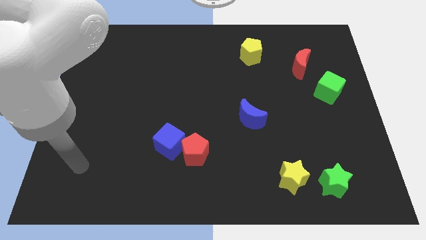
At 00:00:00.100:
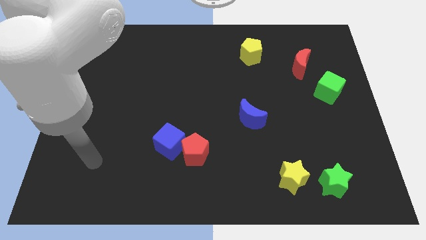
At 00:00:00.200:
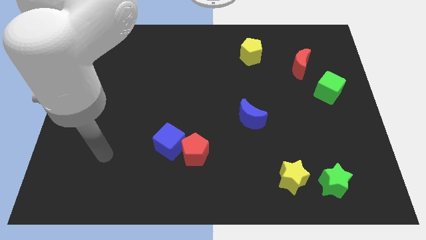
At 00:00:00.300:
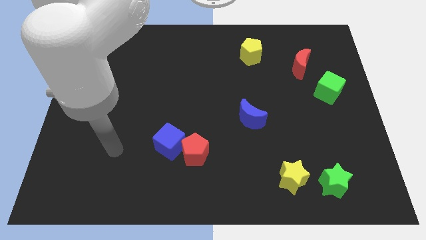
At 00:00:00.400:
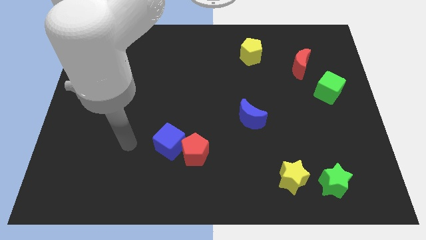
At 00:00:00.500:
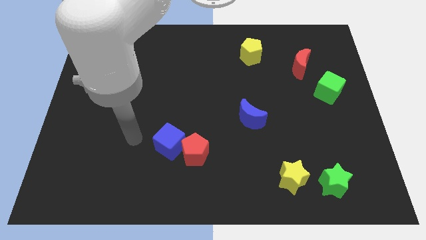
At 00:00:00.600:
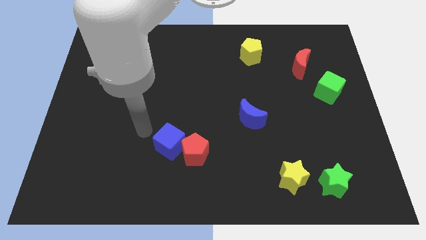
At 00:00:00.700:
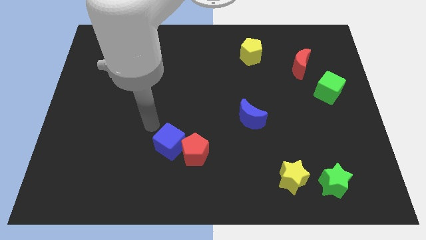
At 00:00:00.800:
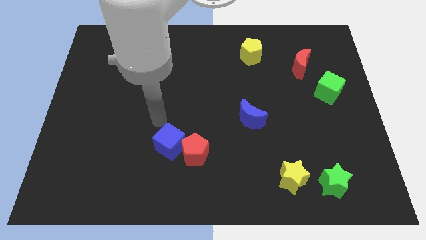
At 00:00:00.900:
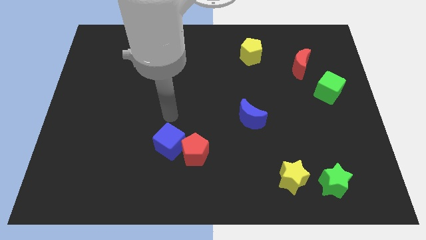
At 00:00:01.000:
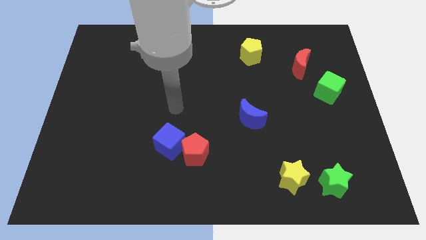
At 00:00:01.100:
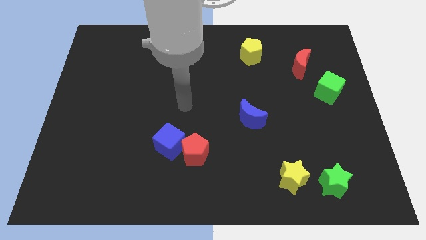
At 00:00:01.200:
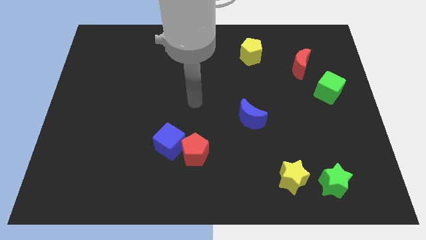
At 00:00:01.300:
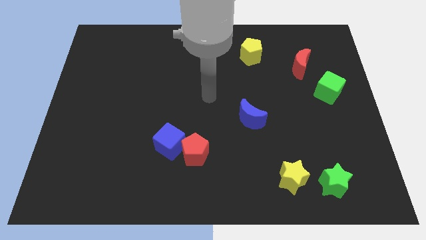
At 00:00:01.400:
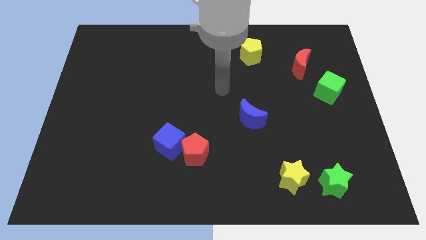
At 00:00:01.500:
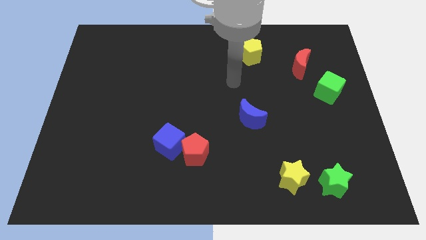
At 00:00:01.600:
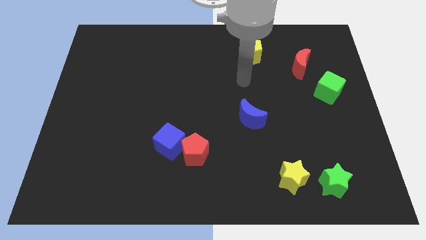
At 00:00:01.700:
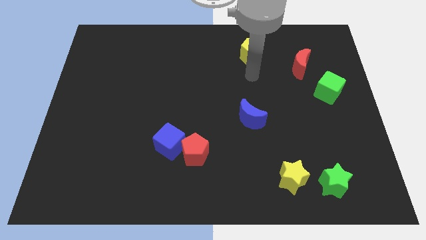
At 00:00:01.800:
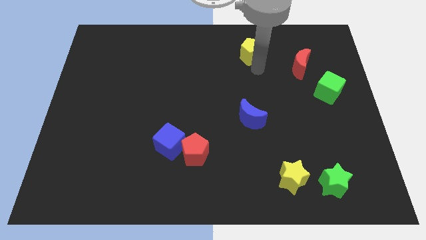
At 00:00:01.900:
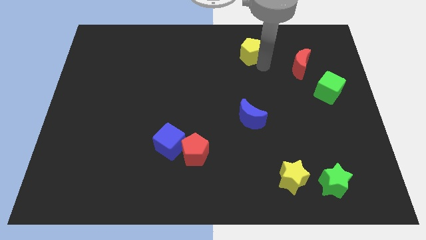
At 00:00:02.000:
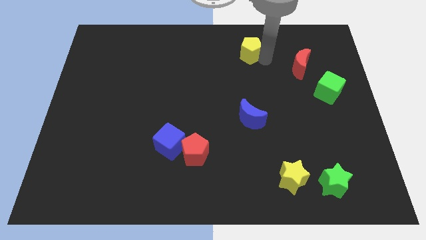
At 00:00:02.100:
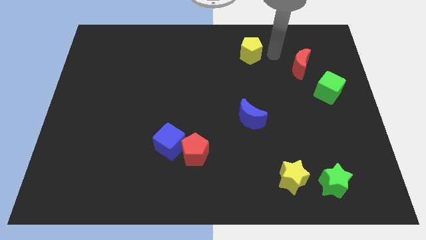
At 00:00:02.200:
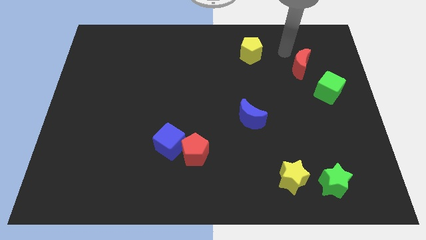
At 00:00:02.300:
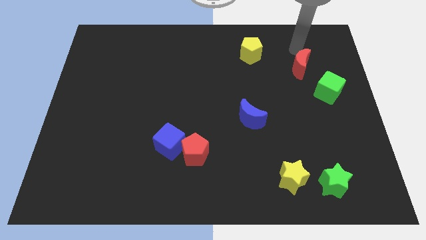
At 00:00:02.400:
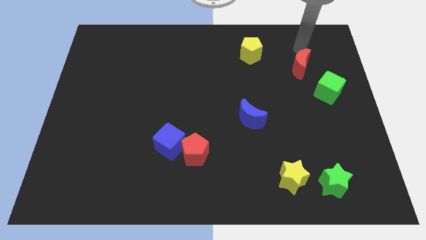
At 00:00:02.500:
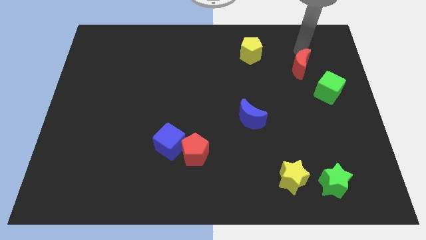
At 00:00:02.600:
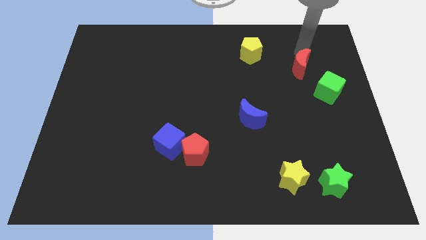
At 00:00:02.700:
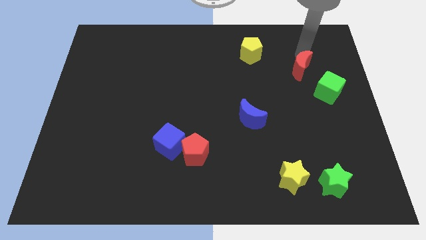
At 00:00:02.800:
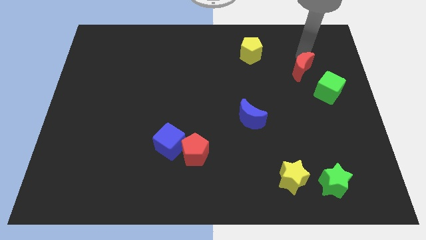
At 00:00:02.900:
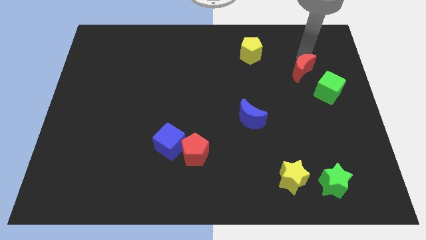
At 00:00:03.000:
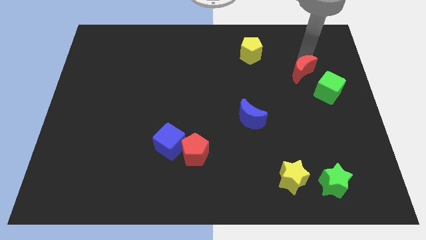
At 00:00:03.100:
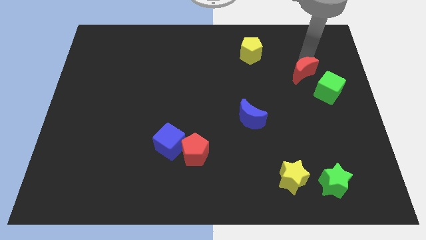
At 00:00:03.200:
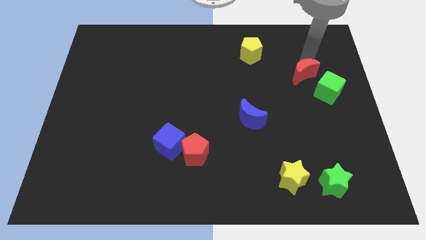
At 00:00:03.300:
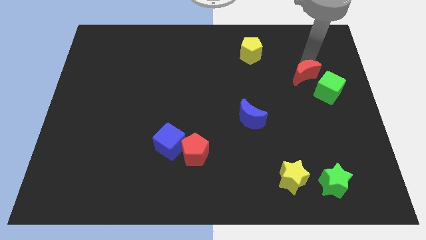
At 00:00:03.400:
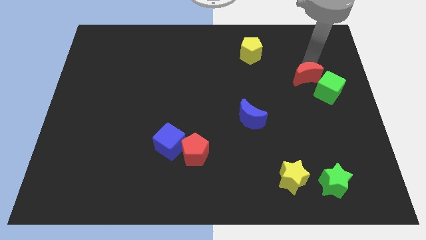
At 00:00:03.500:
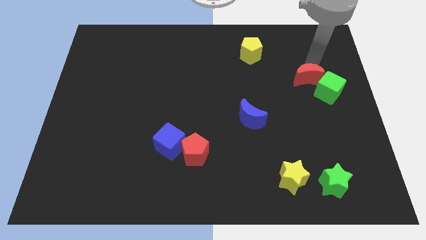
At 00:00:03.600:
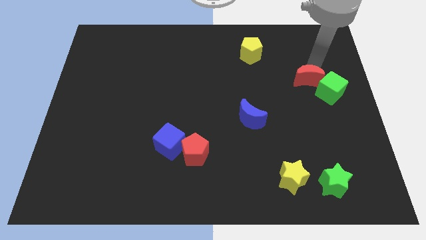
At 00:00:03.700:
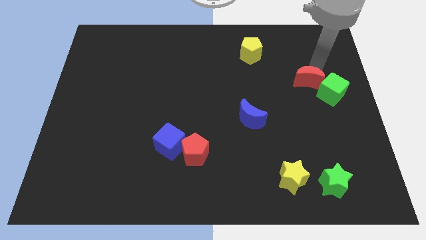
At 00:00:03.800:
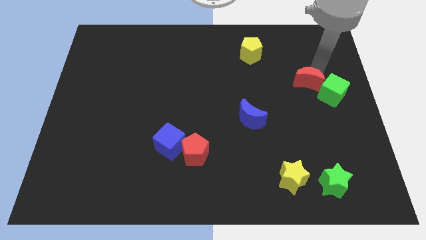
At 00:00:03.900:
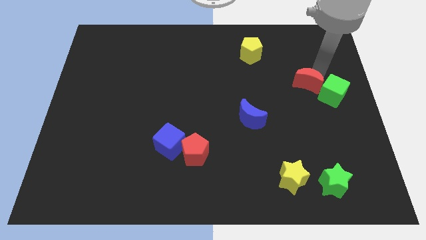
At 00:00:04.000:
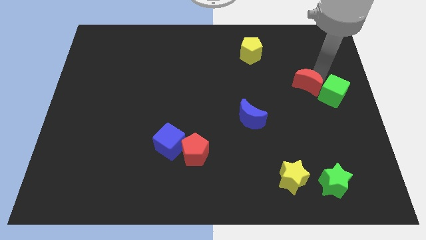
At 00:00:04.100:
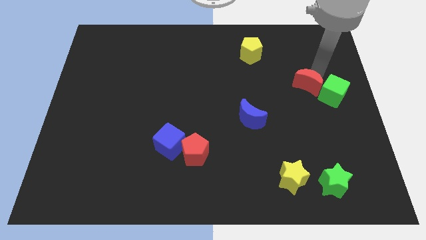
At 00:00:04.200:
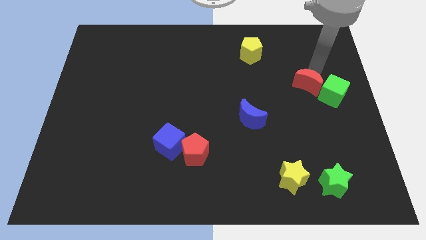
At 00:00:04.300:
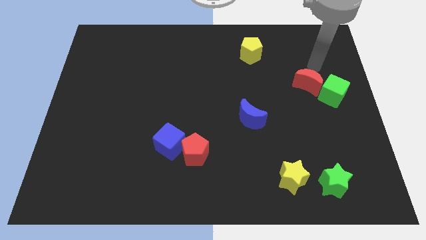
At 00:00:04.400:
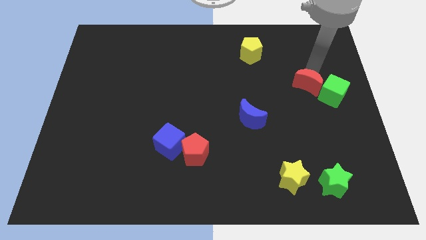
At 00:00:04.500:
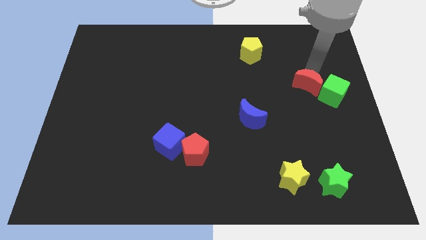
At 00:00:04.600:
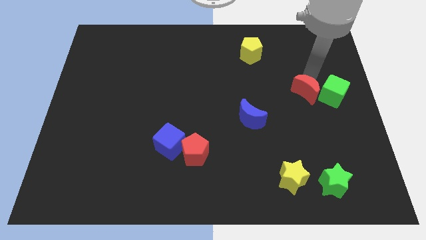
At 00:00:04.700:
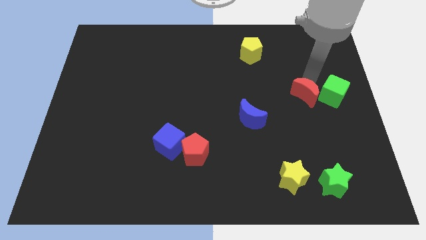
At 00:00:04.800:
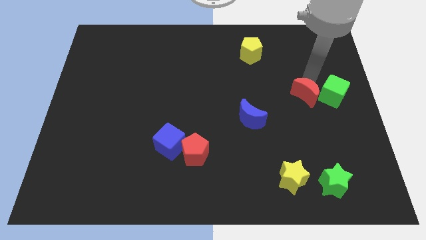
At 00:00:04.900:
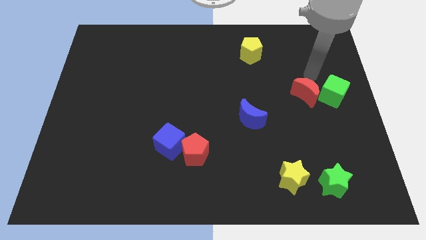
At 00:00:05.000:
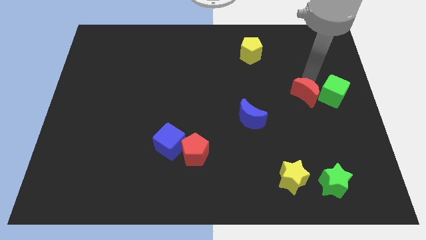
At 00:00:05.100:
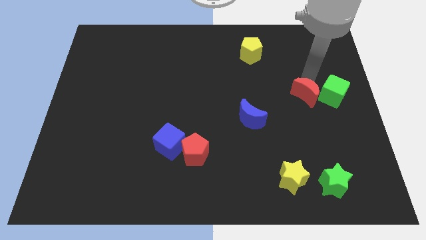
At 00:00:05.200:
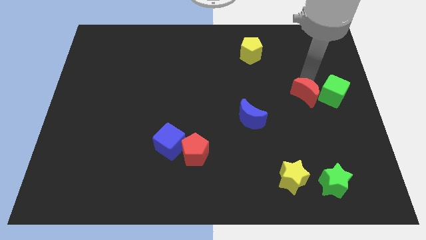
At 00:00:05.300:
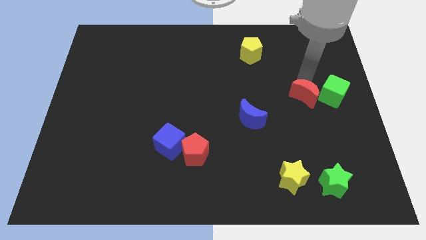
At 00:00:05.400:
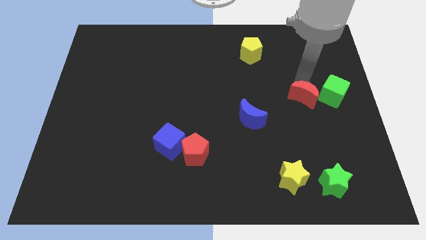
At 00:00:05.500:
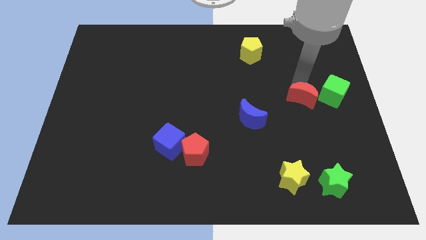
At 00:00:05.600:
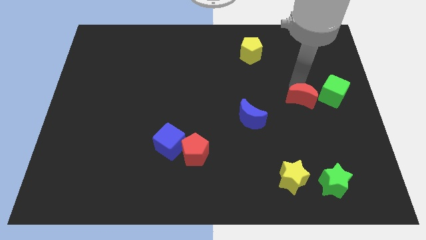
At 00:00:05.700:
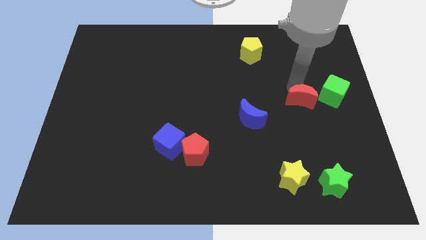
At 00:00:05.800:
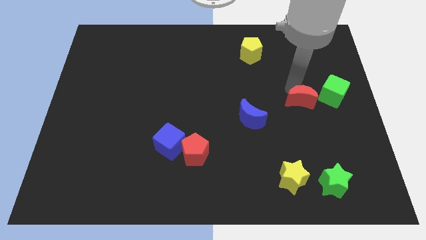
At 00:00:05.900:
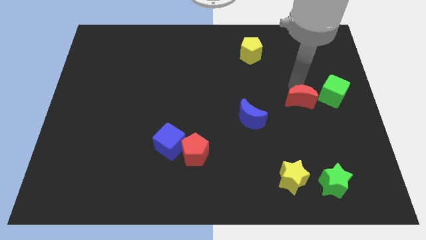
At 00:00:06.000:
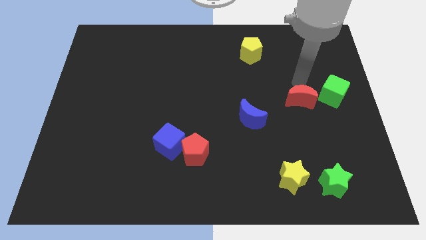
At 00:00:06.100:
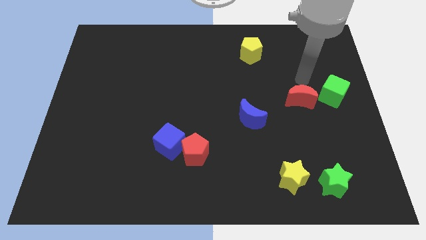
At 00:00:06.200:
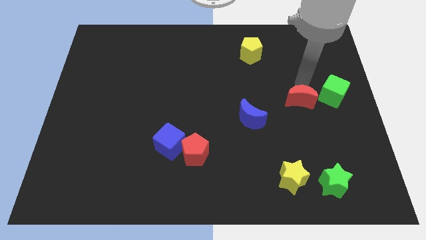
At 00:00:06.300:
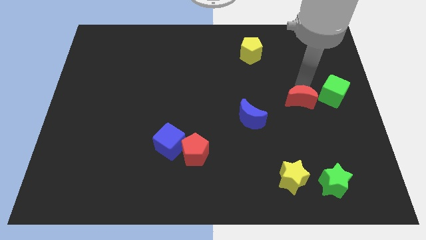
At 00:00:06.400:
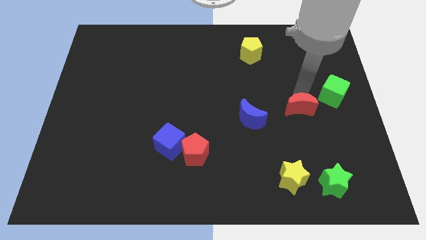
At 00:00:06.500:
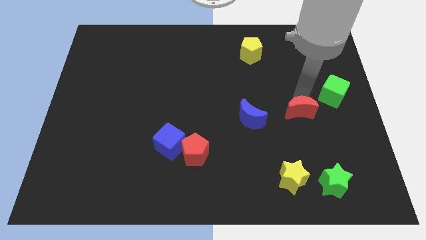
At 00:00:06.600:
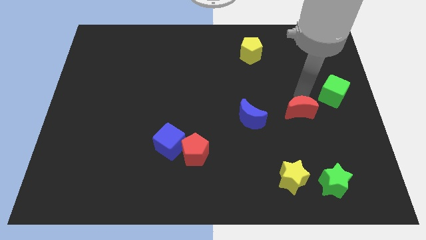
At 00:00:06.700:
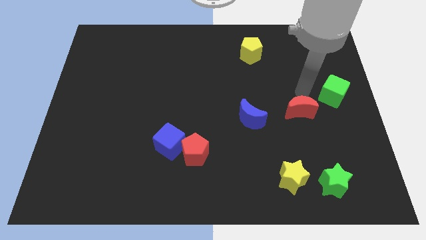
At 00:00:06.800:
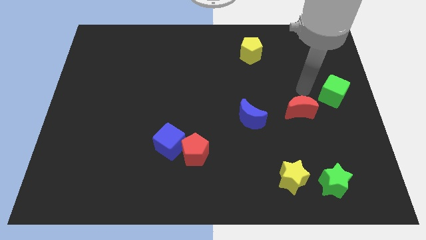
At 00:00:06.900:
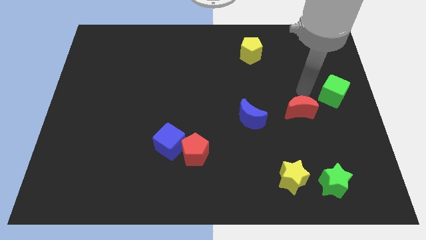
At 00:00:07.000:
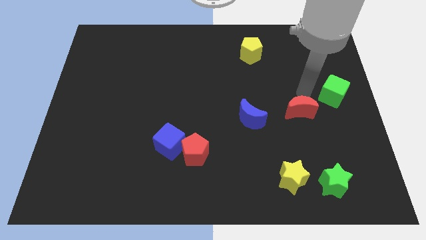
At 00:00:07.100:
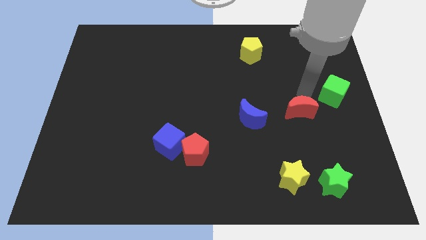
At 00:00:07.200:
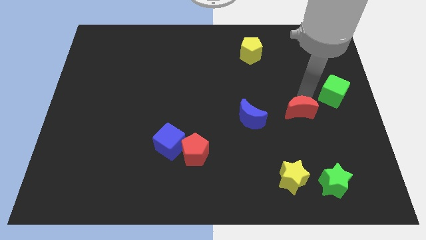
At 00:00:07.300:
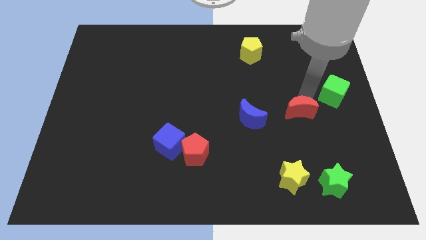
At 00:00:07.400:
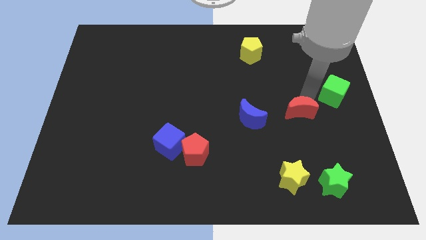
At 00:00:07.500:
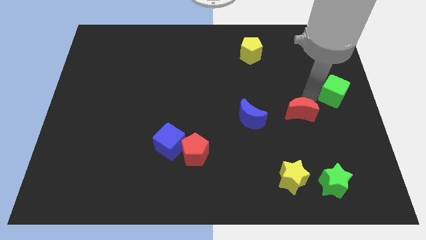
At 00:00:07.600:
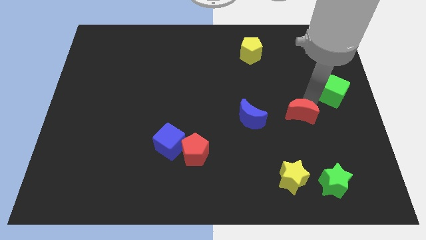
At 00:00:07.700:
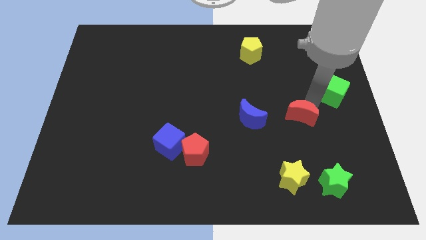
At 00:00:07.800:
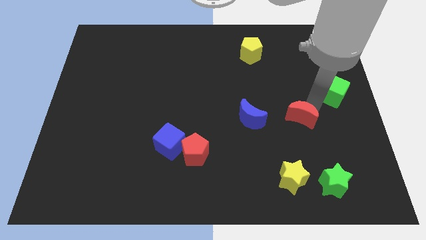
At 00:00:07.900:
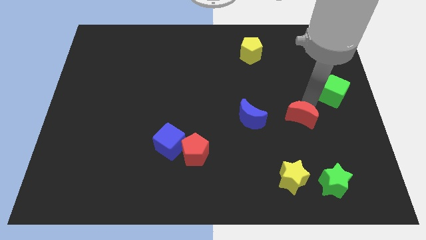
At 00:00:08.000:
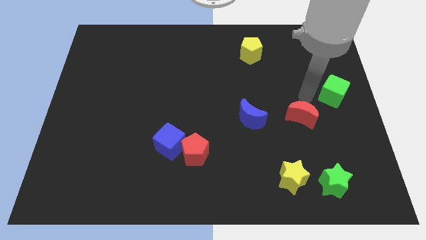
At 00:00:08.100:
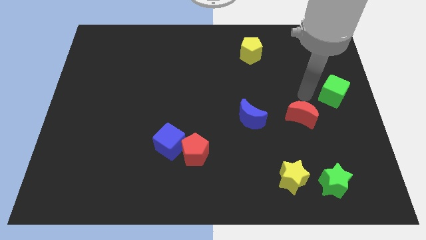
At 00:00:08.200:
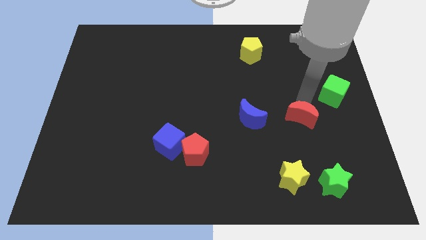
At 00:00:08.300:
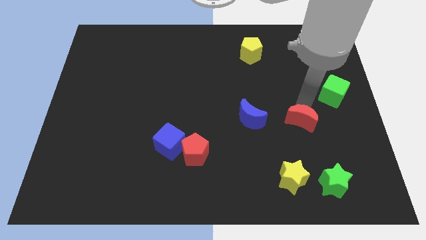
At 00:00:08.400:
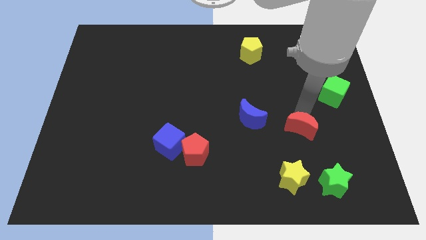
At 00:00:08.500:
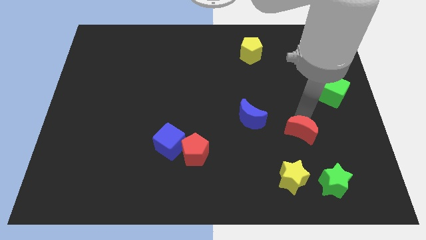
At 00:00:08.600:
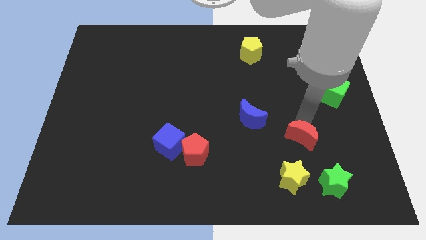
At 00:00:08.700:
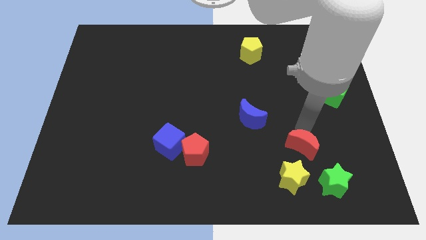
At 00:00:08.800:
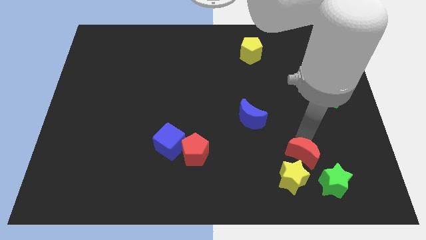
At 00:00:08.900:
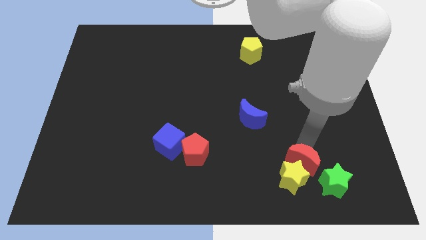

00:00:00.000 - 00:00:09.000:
slide the red moon to the yellow star
